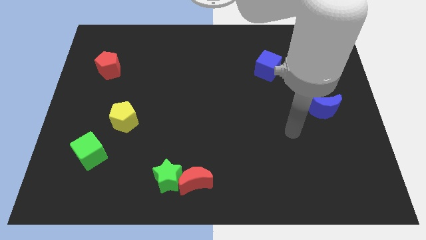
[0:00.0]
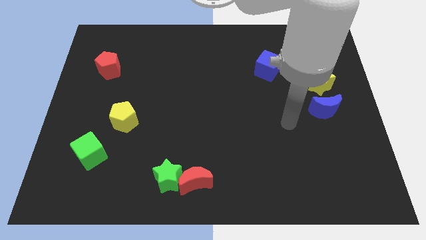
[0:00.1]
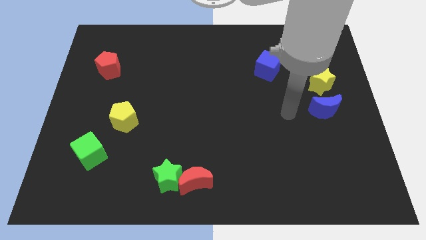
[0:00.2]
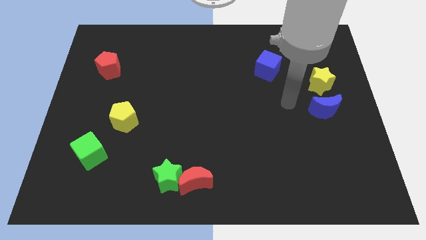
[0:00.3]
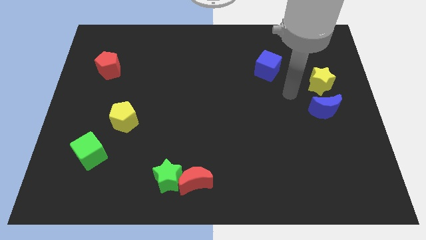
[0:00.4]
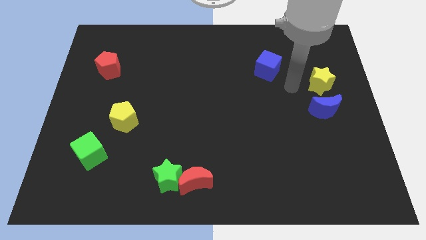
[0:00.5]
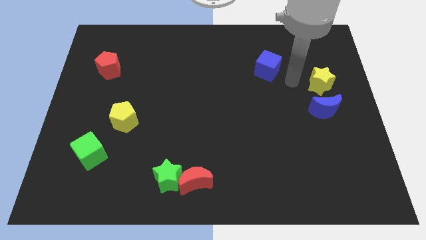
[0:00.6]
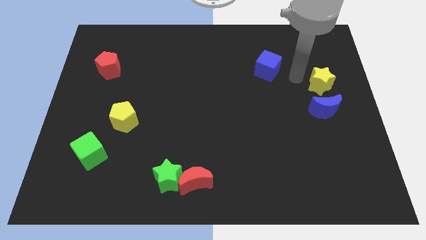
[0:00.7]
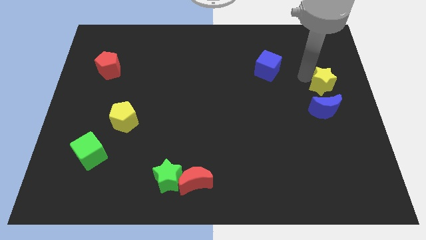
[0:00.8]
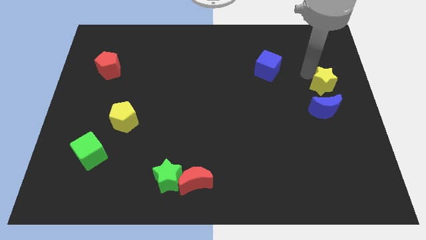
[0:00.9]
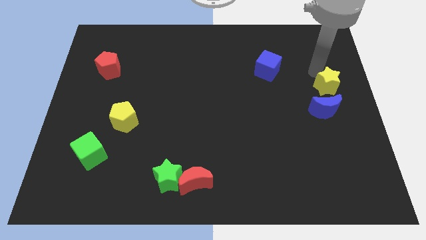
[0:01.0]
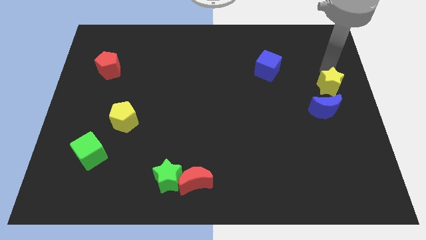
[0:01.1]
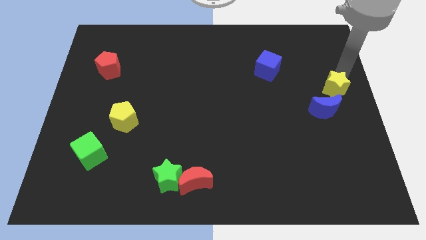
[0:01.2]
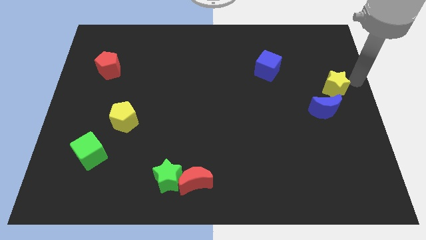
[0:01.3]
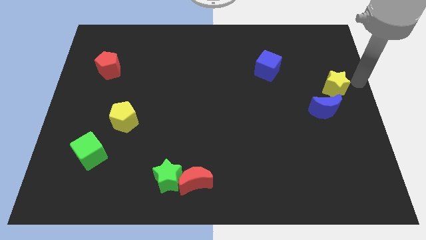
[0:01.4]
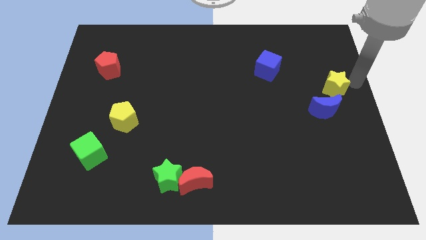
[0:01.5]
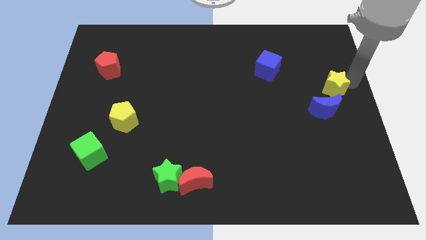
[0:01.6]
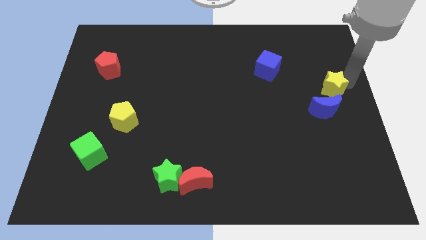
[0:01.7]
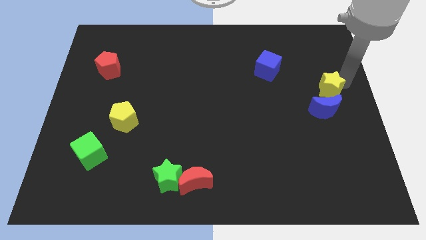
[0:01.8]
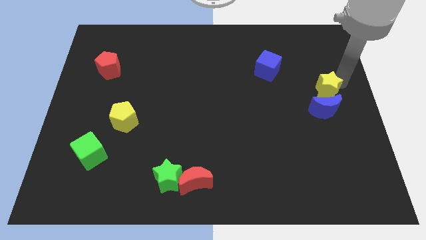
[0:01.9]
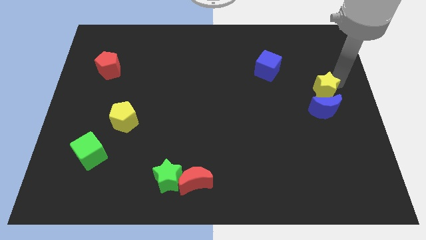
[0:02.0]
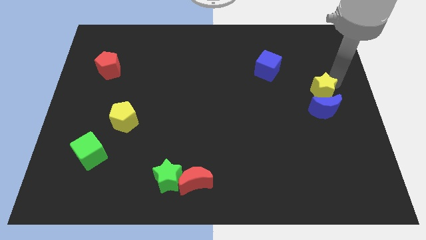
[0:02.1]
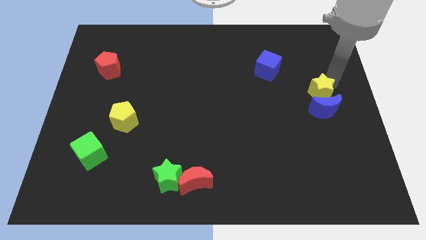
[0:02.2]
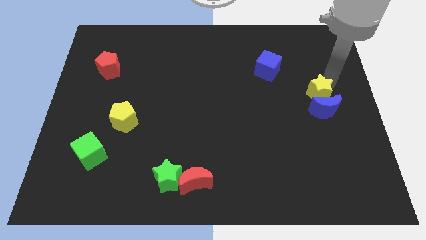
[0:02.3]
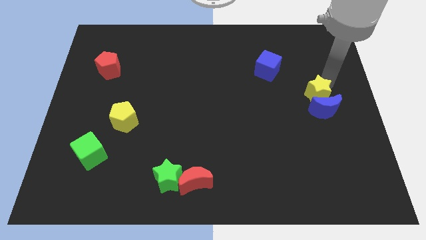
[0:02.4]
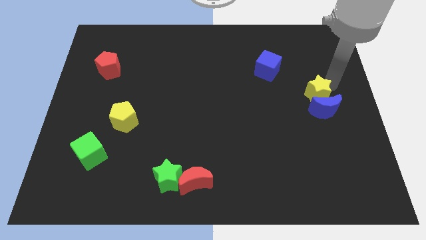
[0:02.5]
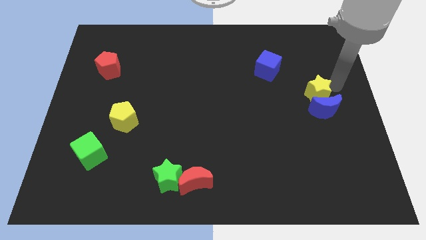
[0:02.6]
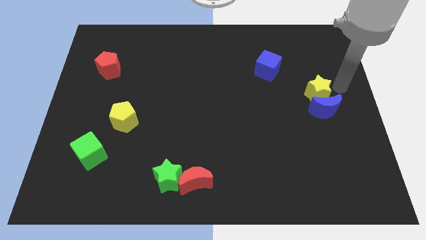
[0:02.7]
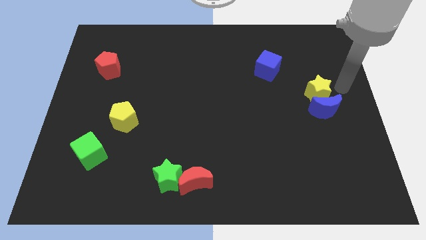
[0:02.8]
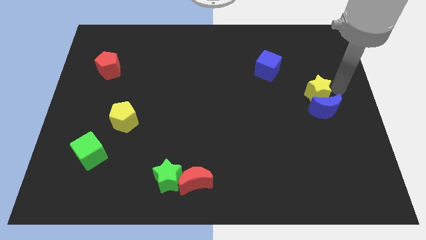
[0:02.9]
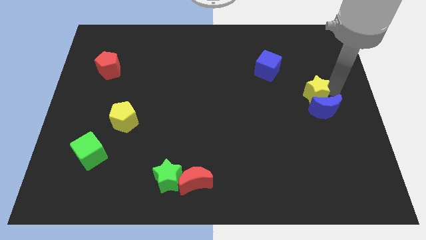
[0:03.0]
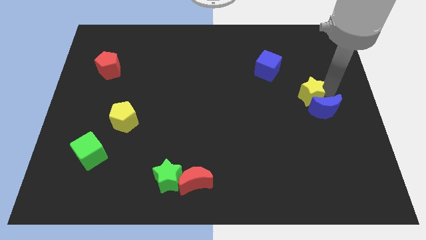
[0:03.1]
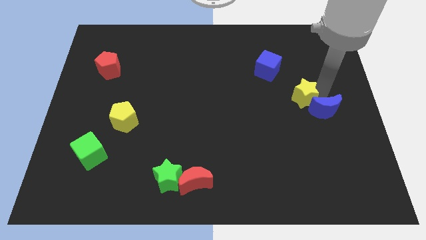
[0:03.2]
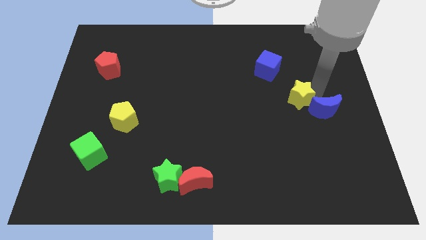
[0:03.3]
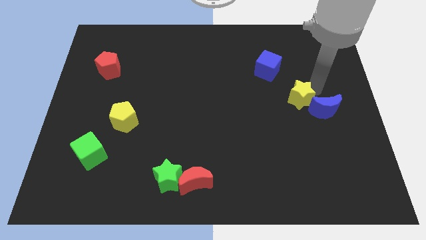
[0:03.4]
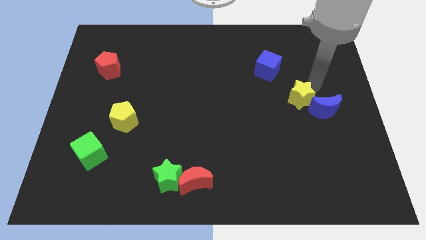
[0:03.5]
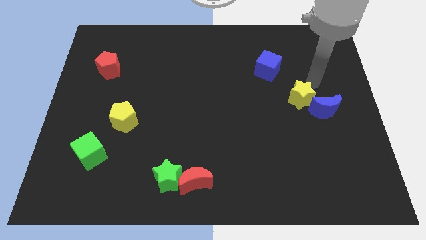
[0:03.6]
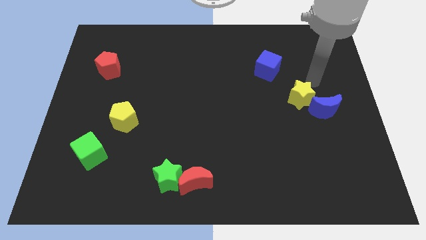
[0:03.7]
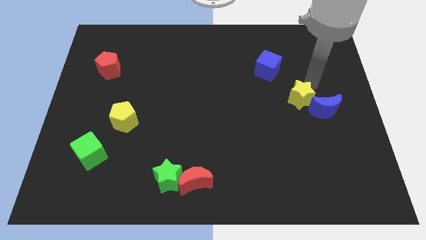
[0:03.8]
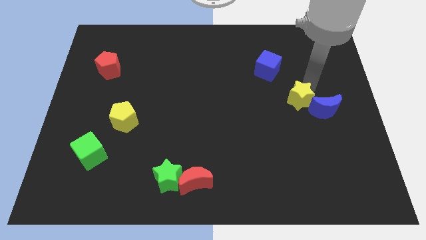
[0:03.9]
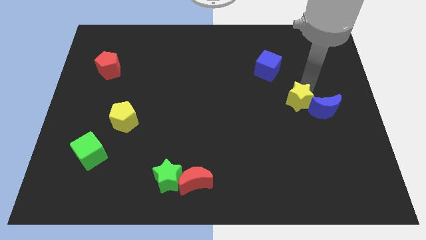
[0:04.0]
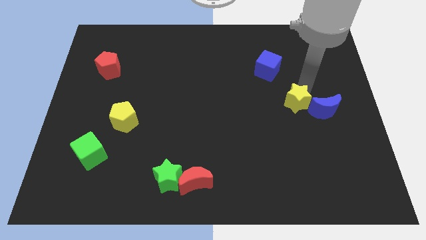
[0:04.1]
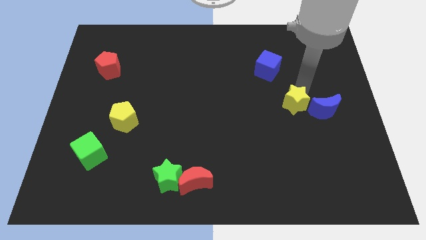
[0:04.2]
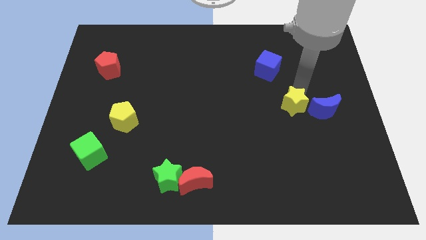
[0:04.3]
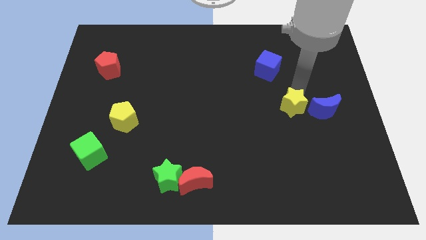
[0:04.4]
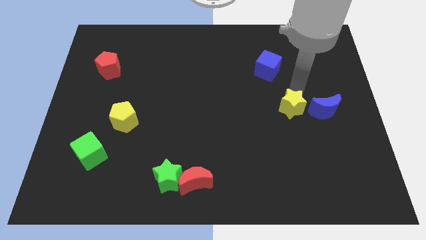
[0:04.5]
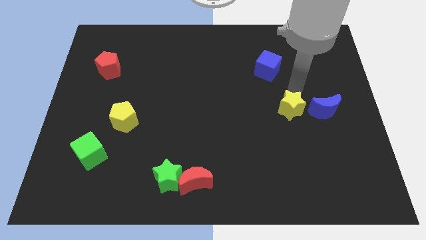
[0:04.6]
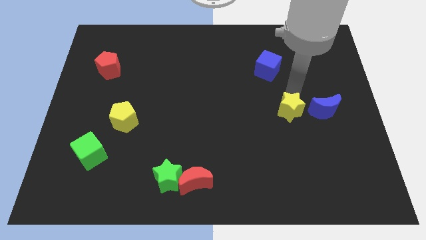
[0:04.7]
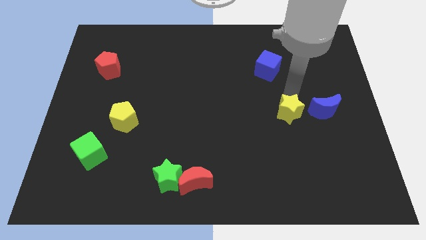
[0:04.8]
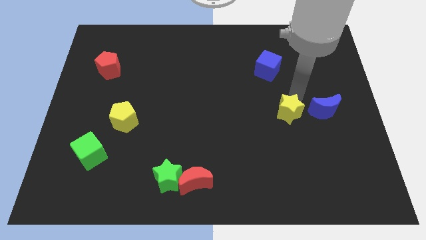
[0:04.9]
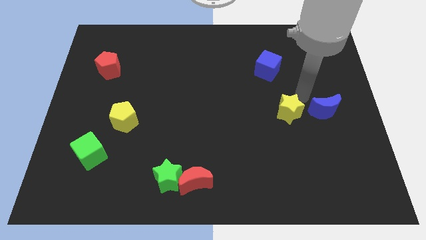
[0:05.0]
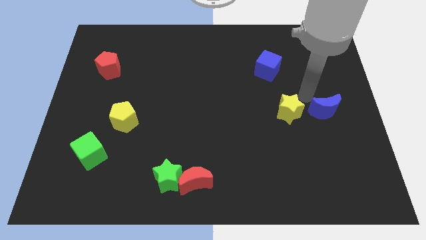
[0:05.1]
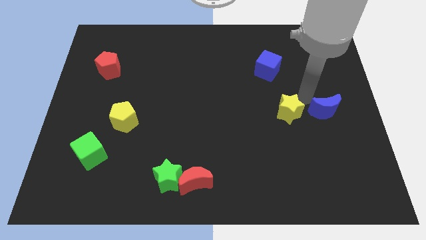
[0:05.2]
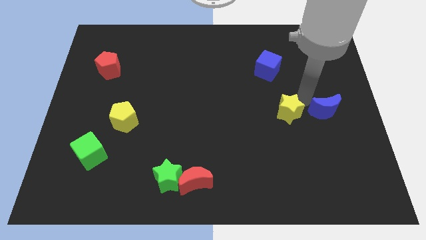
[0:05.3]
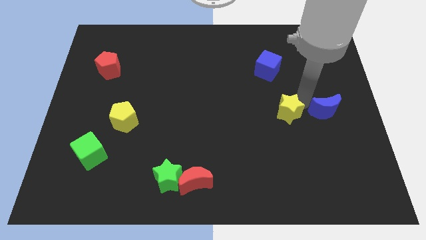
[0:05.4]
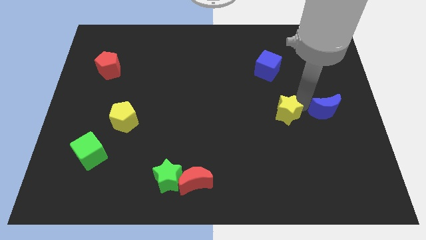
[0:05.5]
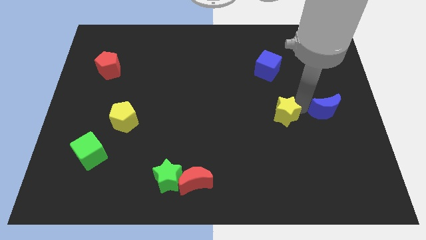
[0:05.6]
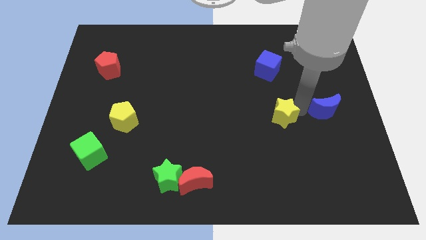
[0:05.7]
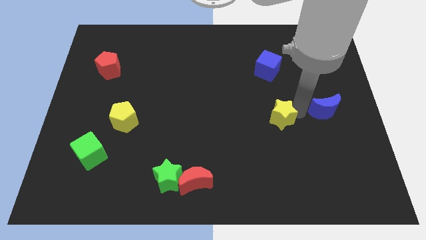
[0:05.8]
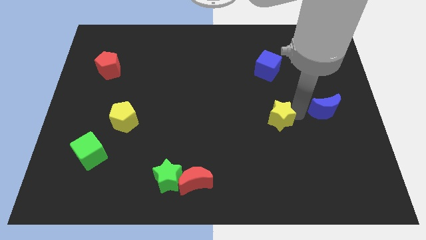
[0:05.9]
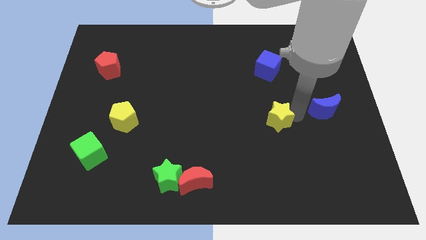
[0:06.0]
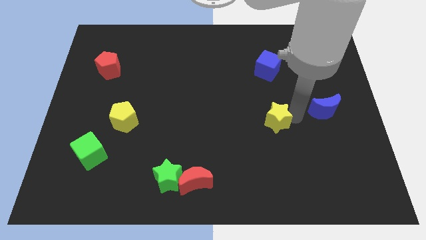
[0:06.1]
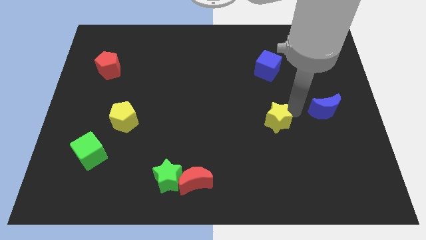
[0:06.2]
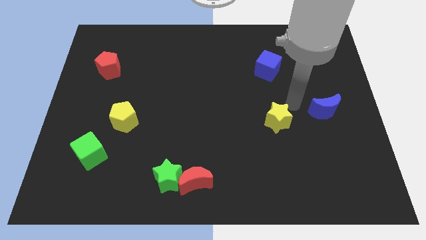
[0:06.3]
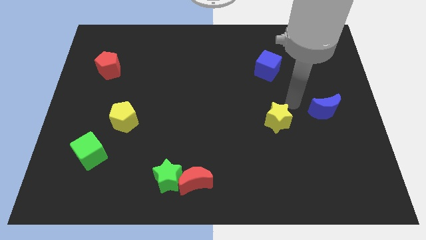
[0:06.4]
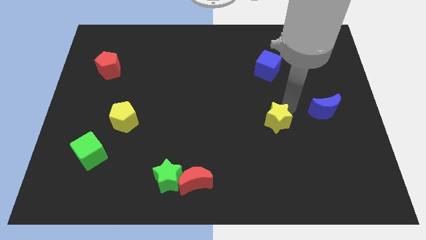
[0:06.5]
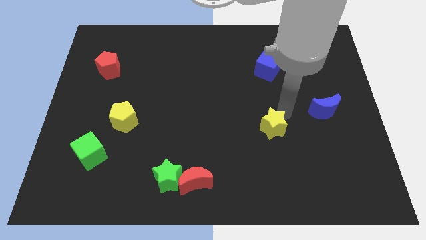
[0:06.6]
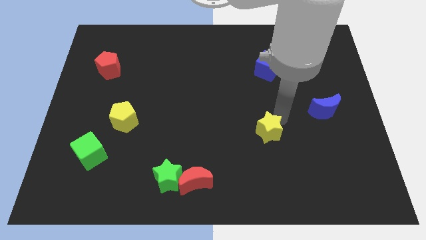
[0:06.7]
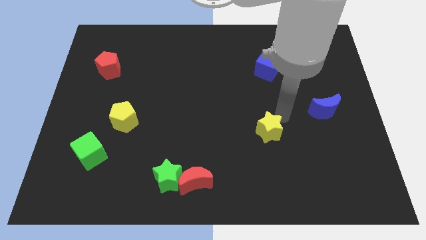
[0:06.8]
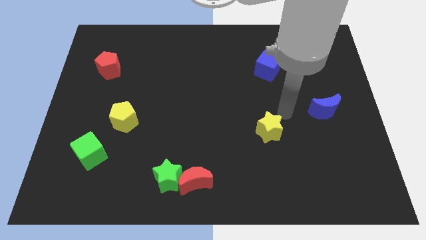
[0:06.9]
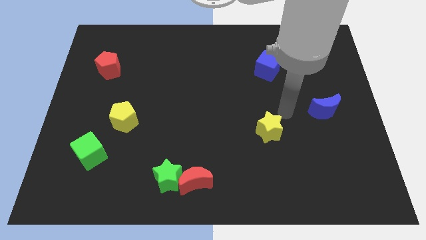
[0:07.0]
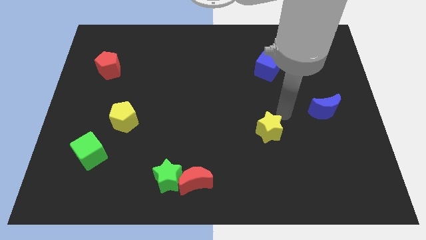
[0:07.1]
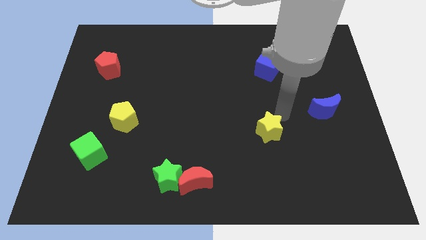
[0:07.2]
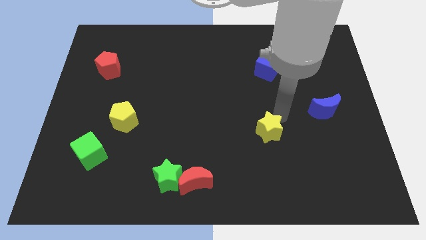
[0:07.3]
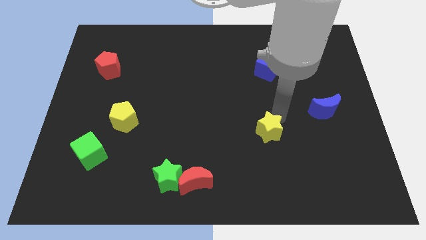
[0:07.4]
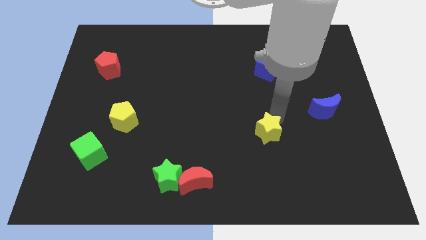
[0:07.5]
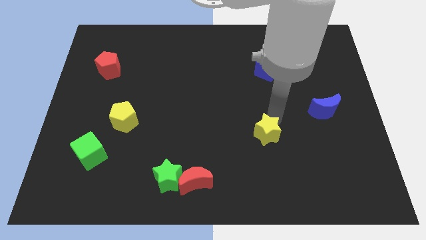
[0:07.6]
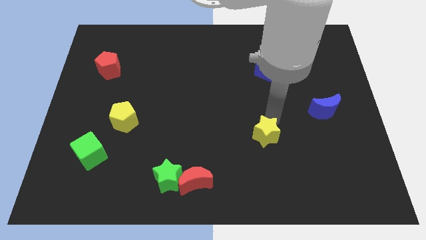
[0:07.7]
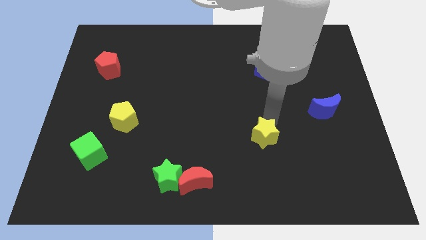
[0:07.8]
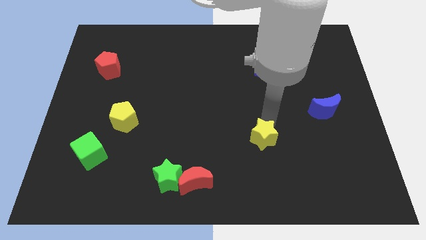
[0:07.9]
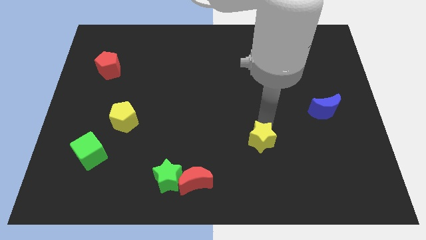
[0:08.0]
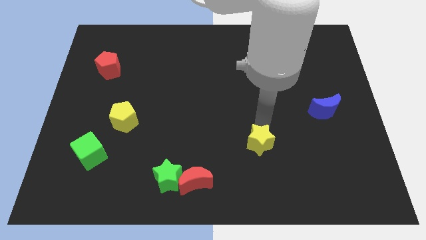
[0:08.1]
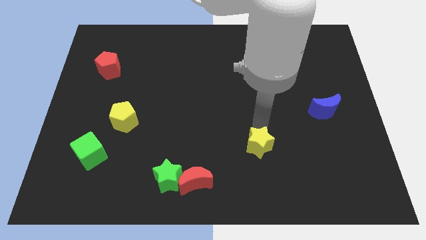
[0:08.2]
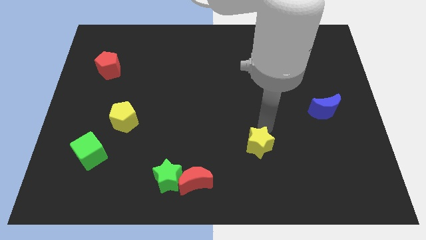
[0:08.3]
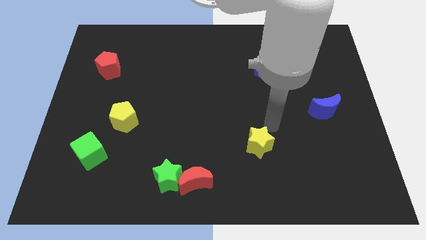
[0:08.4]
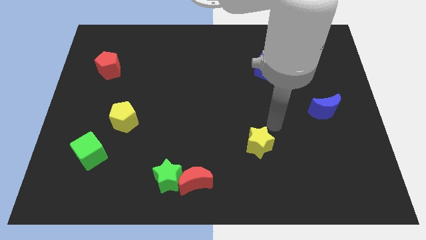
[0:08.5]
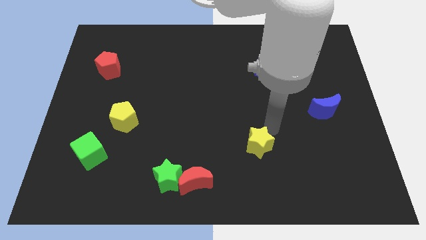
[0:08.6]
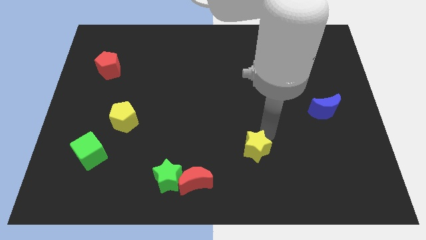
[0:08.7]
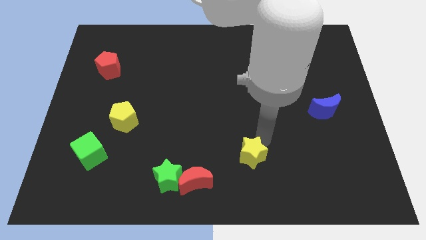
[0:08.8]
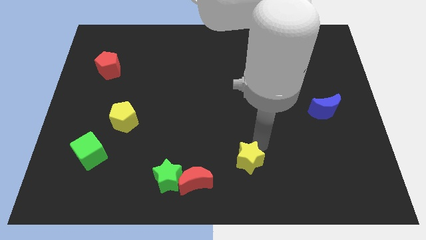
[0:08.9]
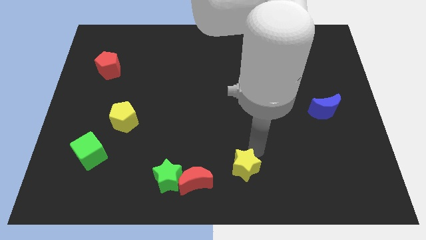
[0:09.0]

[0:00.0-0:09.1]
put the yellow star to the bottom
